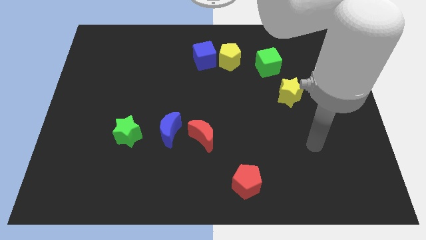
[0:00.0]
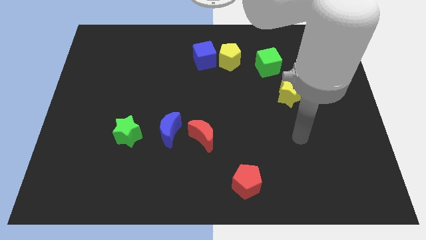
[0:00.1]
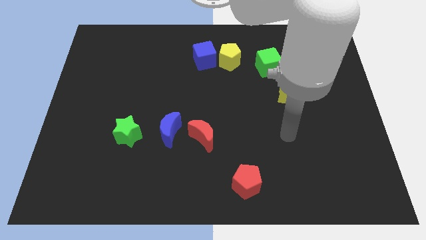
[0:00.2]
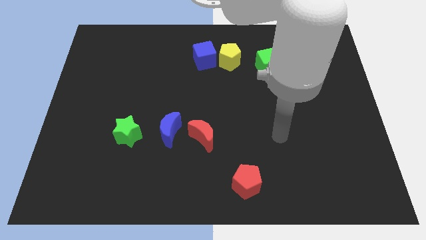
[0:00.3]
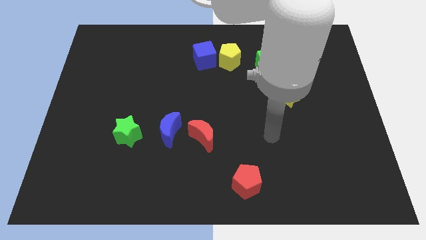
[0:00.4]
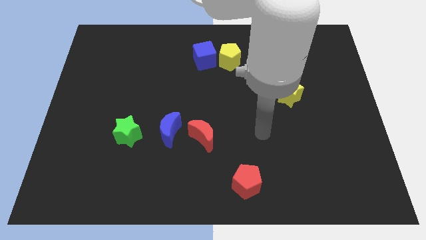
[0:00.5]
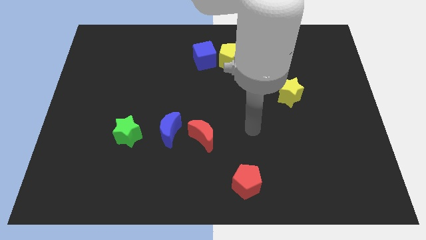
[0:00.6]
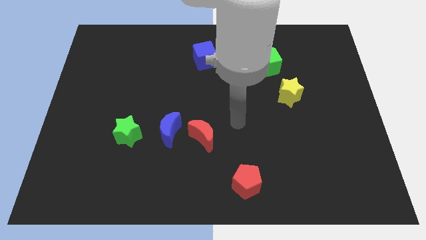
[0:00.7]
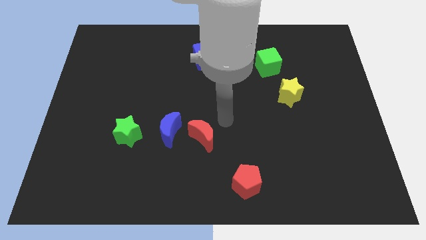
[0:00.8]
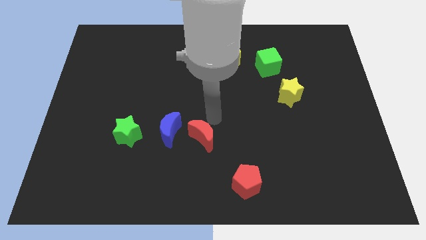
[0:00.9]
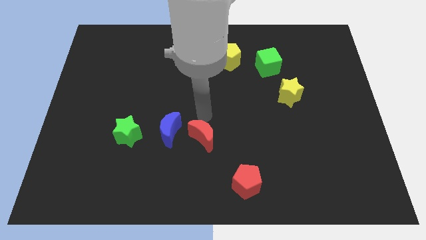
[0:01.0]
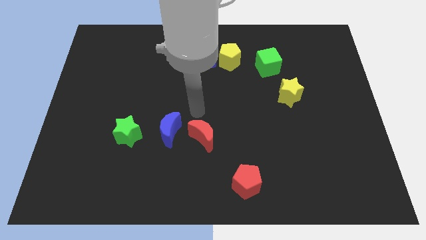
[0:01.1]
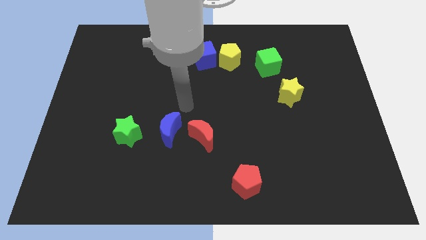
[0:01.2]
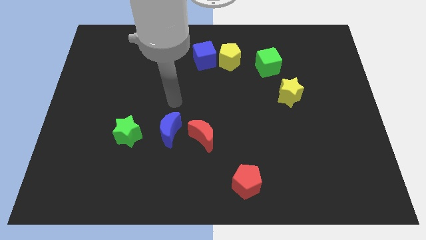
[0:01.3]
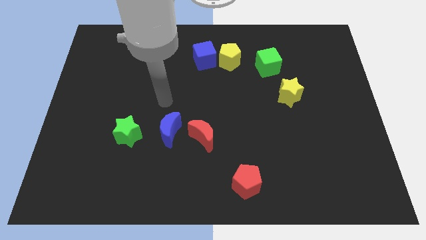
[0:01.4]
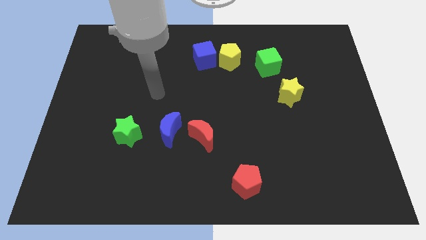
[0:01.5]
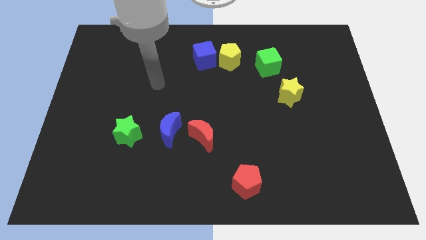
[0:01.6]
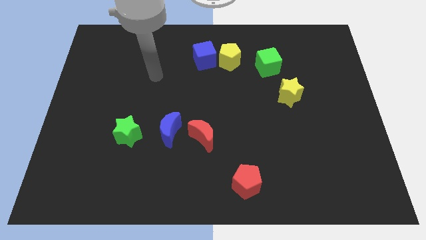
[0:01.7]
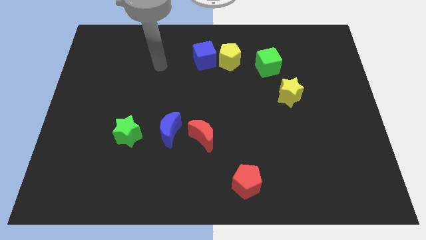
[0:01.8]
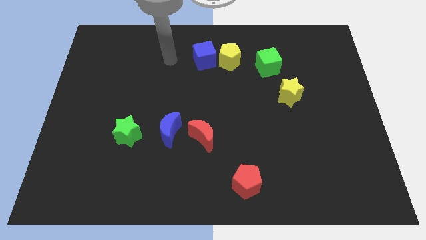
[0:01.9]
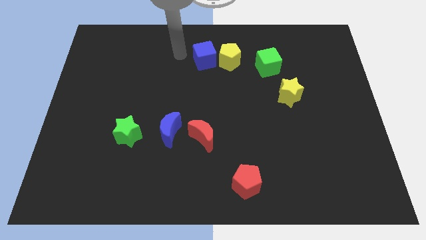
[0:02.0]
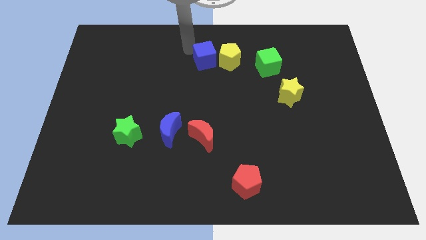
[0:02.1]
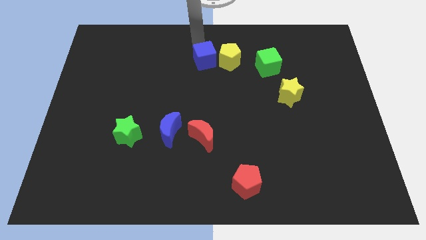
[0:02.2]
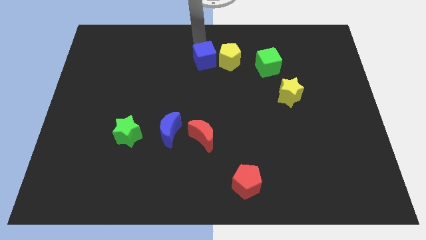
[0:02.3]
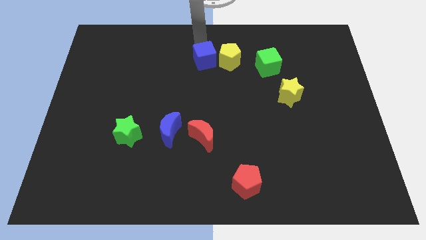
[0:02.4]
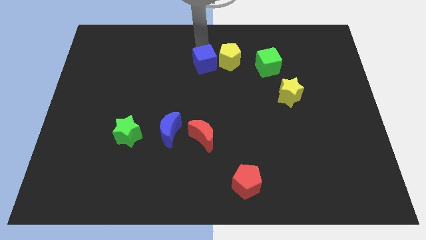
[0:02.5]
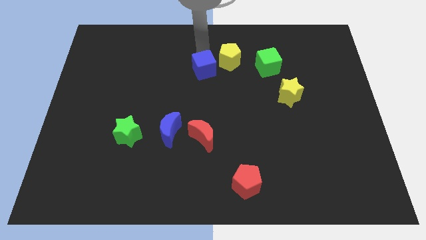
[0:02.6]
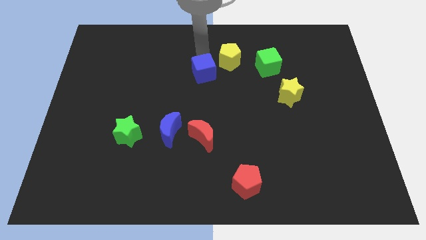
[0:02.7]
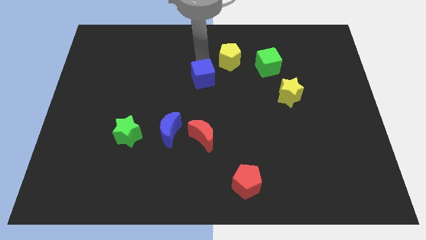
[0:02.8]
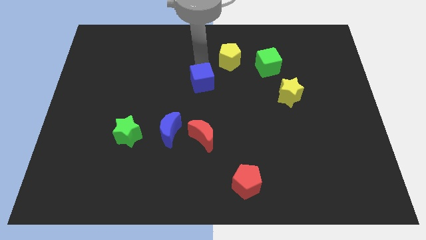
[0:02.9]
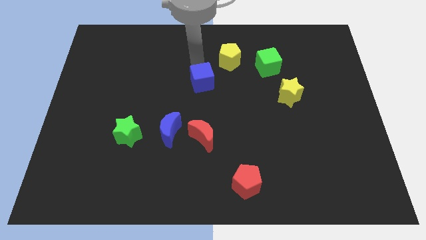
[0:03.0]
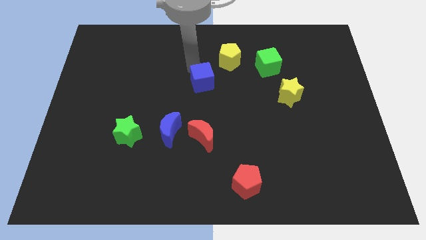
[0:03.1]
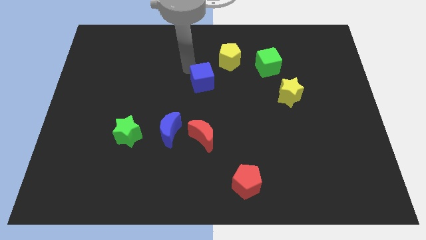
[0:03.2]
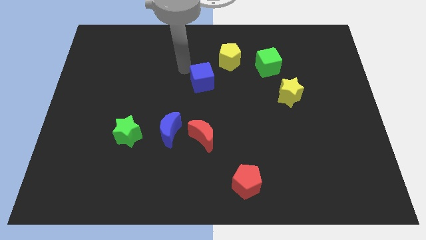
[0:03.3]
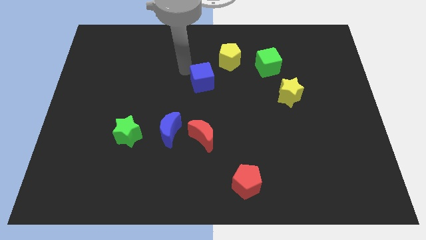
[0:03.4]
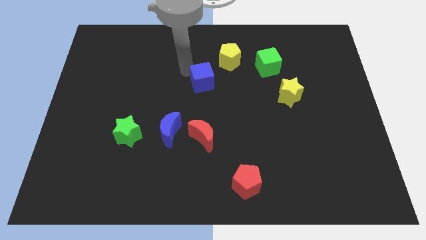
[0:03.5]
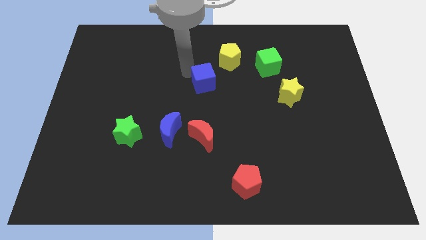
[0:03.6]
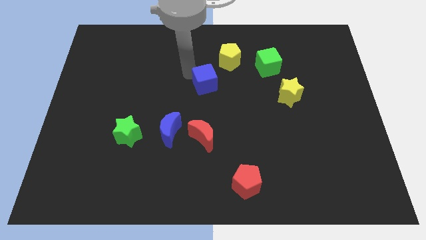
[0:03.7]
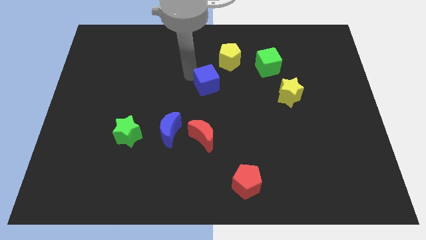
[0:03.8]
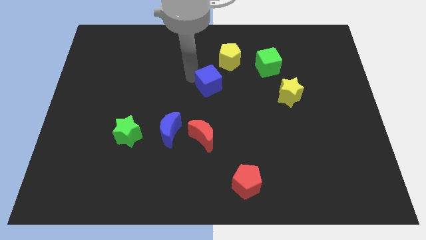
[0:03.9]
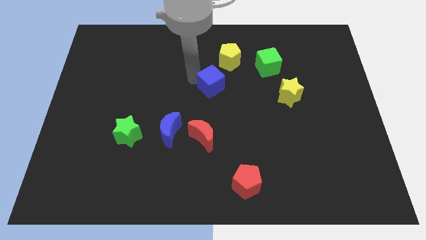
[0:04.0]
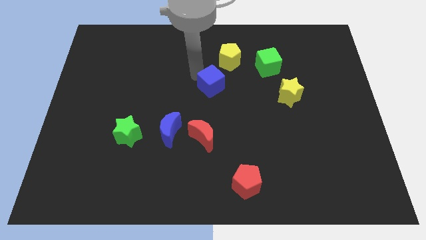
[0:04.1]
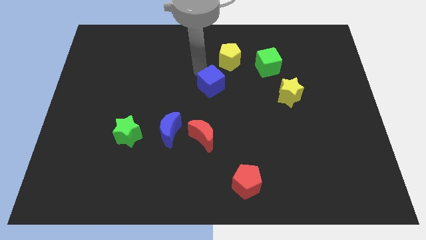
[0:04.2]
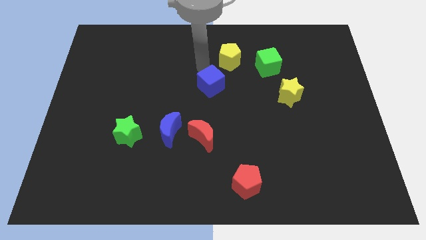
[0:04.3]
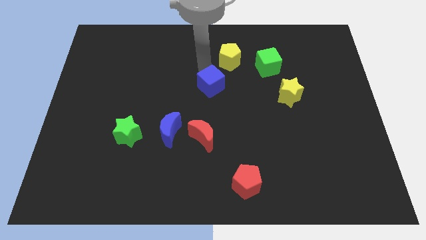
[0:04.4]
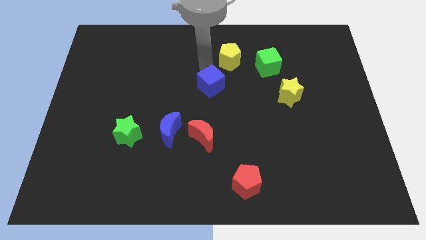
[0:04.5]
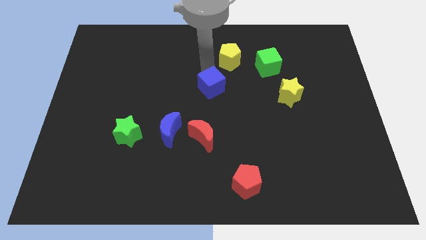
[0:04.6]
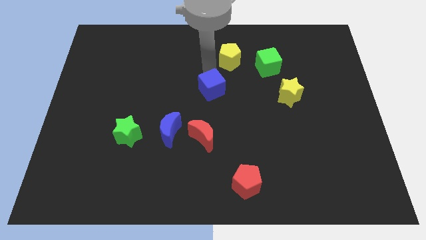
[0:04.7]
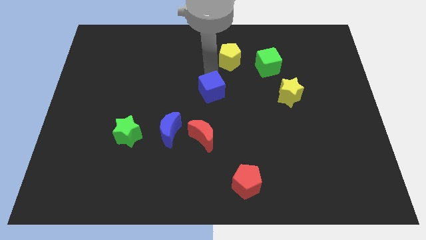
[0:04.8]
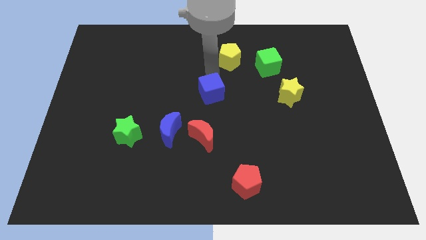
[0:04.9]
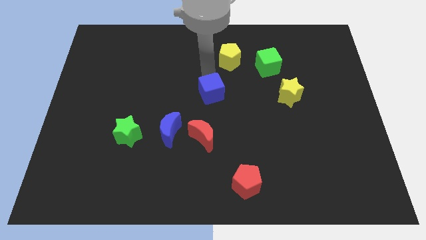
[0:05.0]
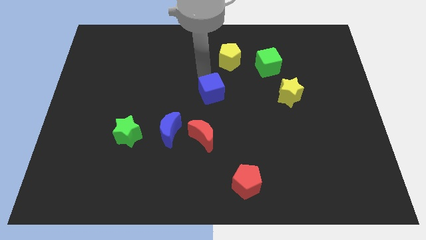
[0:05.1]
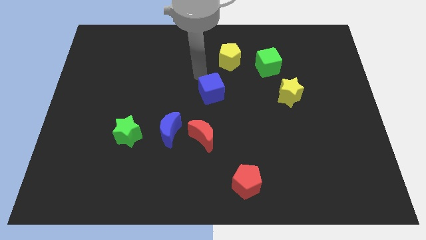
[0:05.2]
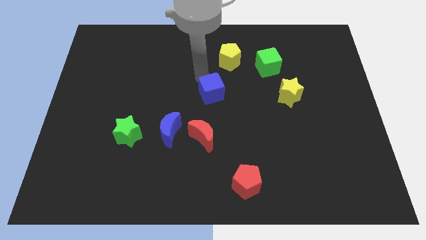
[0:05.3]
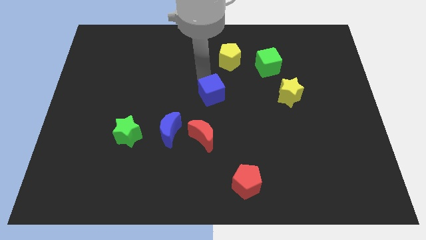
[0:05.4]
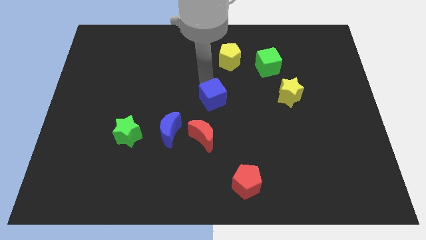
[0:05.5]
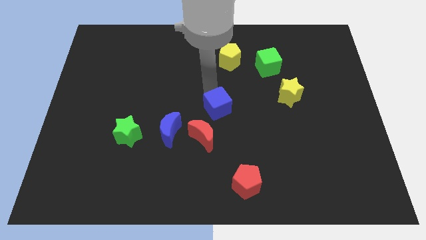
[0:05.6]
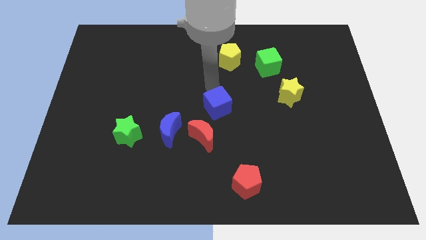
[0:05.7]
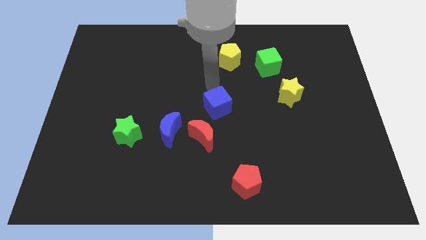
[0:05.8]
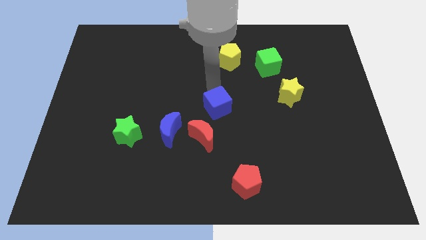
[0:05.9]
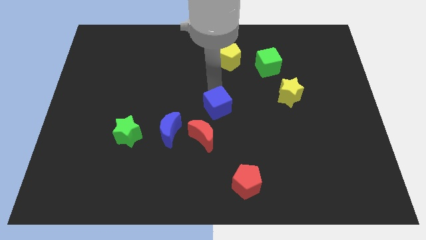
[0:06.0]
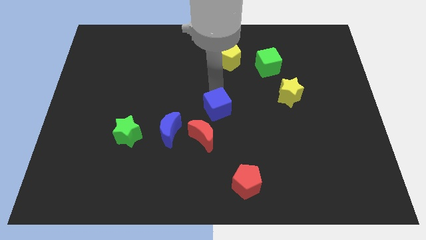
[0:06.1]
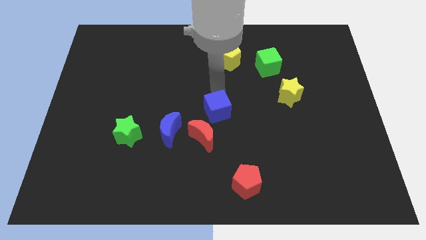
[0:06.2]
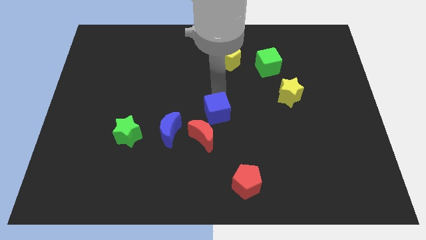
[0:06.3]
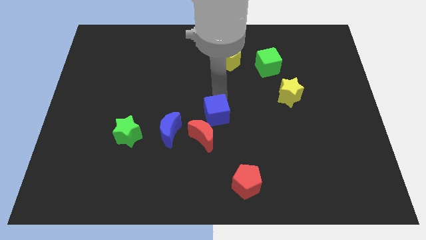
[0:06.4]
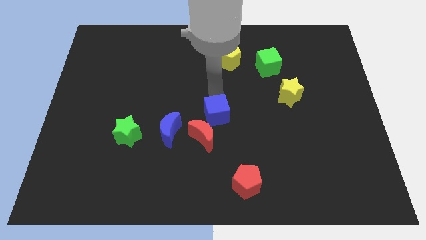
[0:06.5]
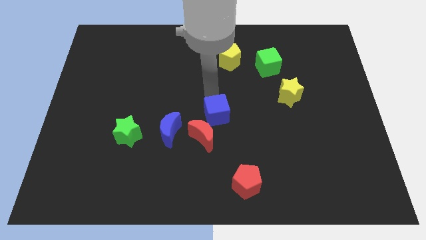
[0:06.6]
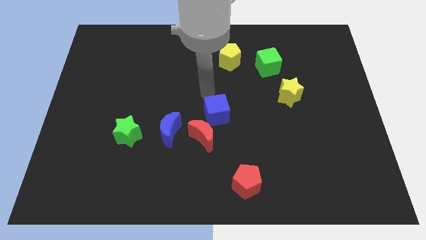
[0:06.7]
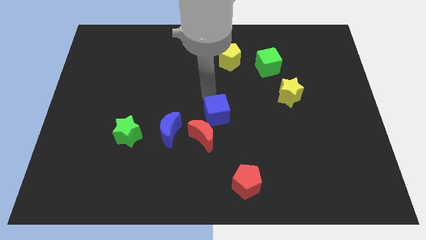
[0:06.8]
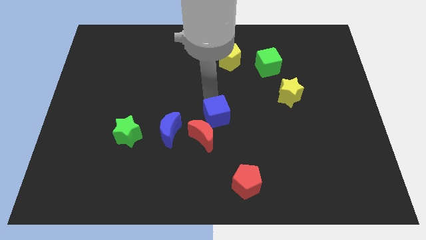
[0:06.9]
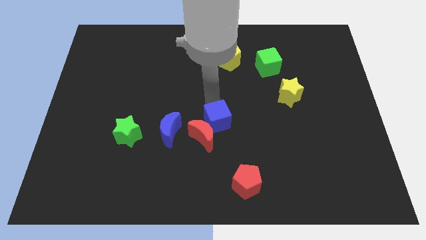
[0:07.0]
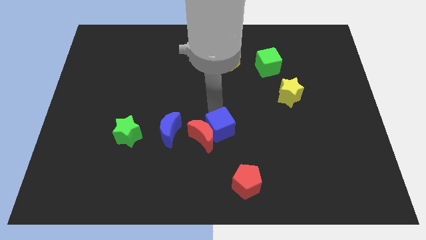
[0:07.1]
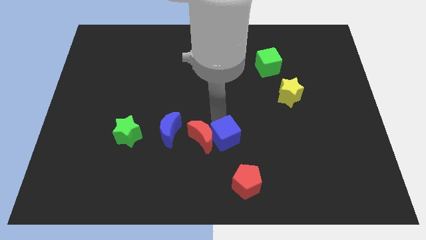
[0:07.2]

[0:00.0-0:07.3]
push the blue cube to the bottom right of the red moon
